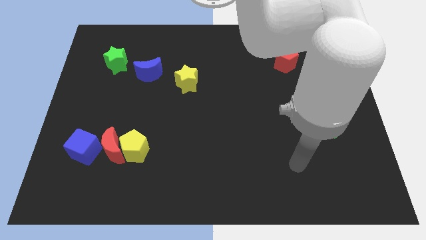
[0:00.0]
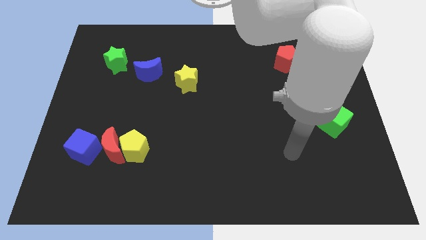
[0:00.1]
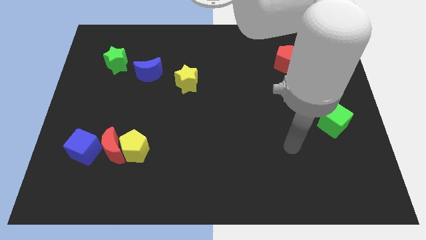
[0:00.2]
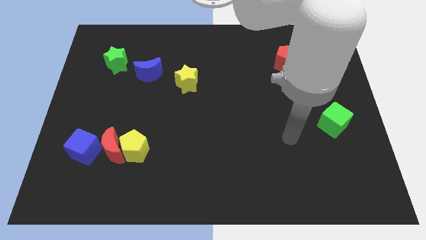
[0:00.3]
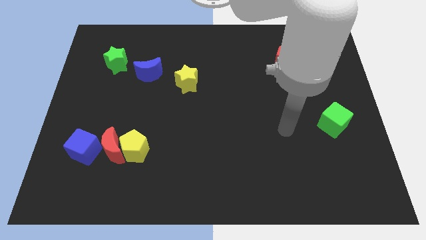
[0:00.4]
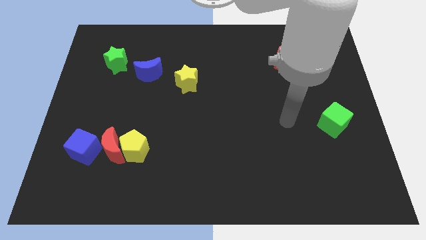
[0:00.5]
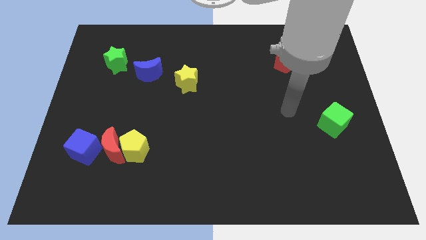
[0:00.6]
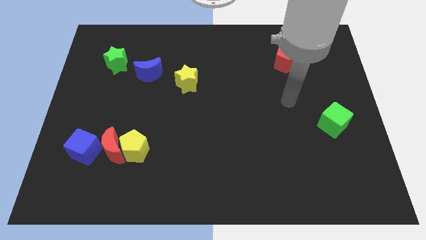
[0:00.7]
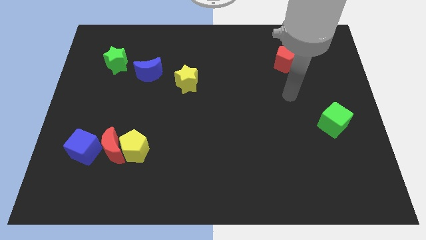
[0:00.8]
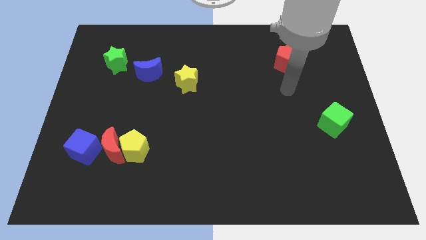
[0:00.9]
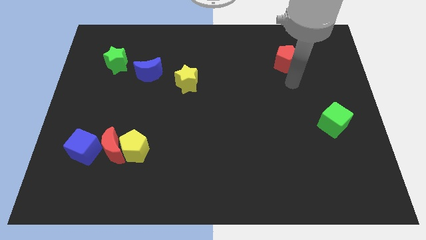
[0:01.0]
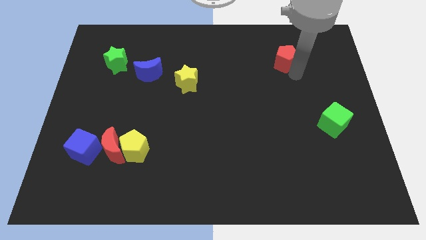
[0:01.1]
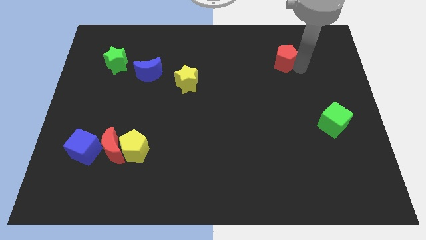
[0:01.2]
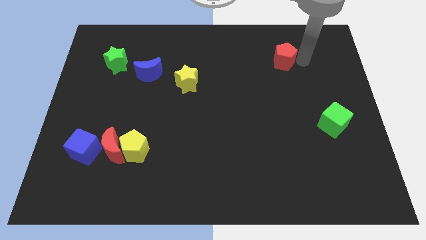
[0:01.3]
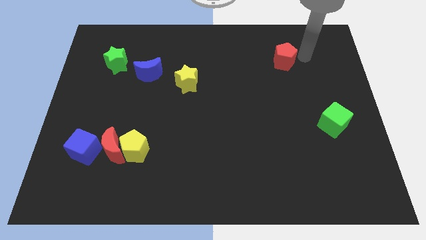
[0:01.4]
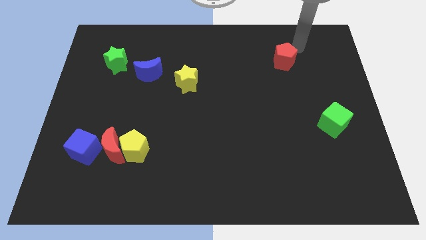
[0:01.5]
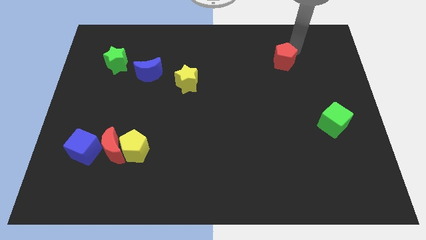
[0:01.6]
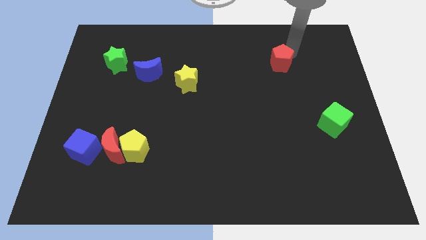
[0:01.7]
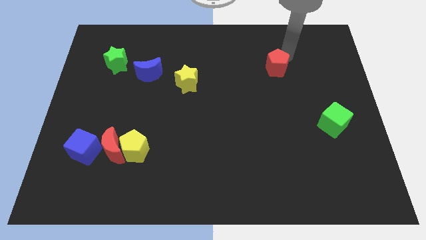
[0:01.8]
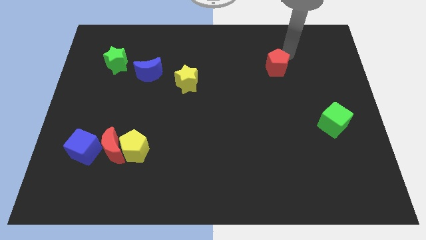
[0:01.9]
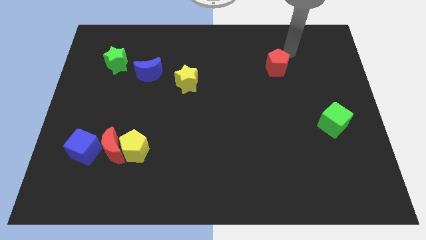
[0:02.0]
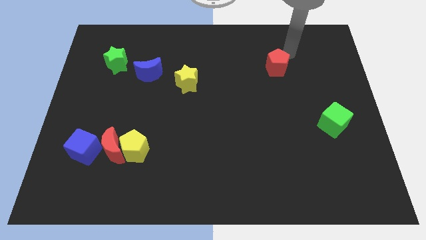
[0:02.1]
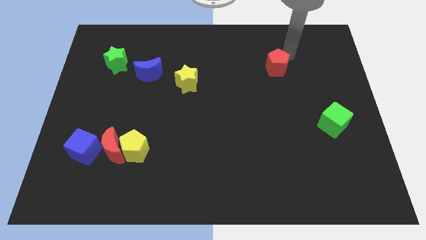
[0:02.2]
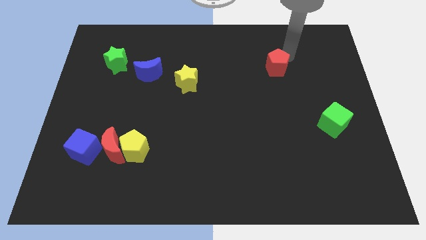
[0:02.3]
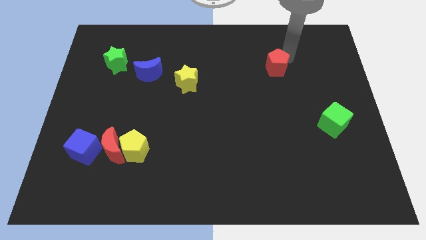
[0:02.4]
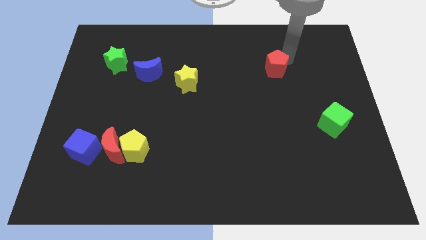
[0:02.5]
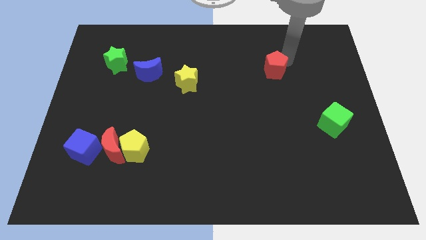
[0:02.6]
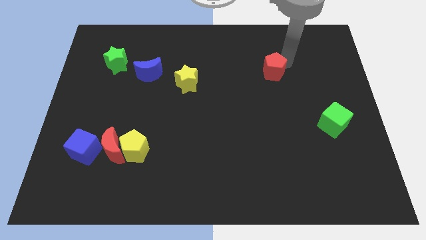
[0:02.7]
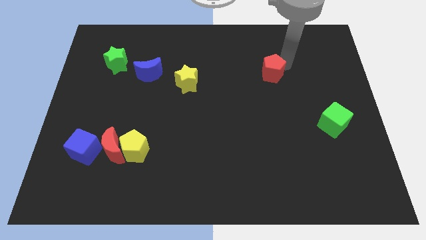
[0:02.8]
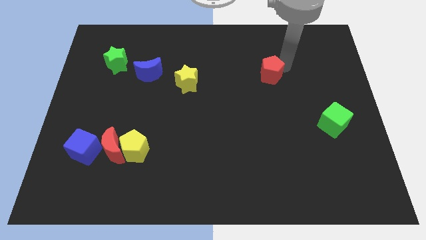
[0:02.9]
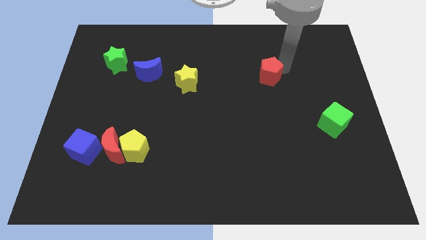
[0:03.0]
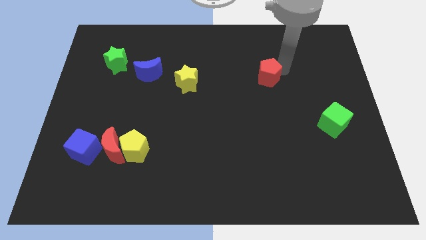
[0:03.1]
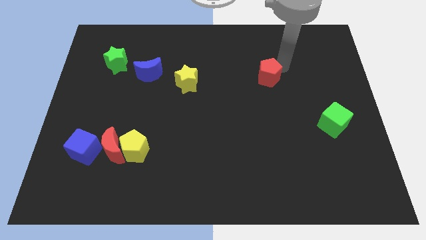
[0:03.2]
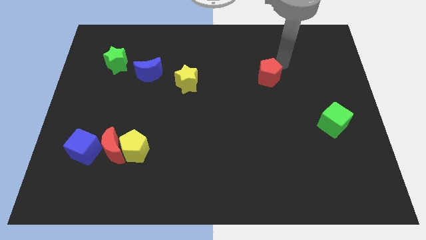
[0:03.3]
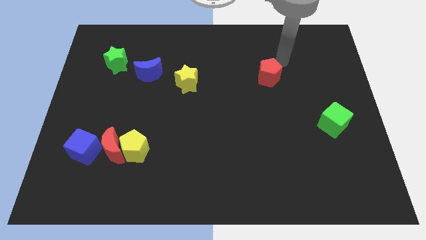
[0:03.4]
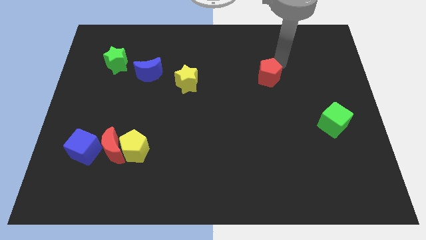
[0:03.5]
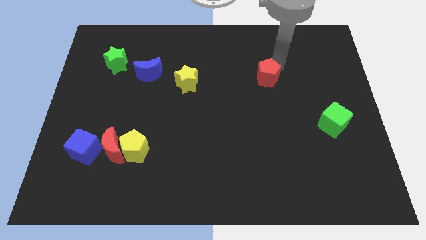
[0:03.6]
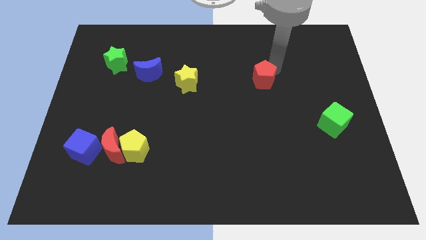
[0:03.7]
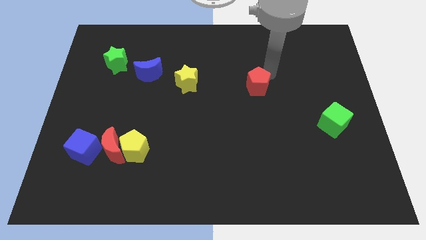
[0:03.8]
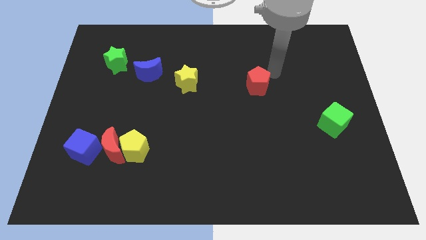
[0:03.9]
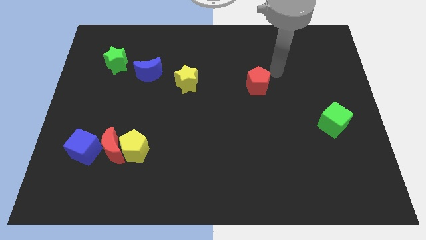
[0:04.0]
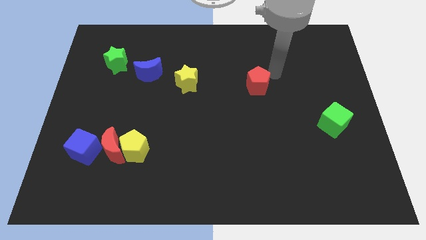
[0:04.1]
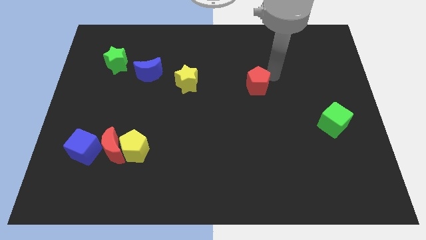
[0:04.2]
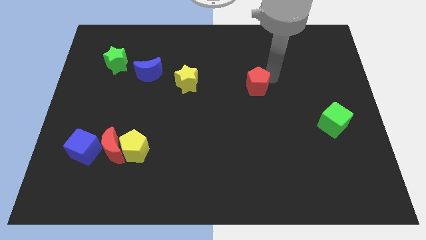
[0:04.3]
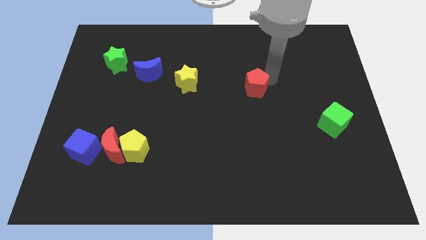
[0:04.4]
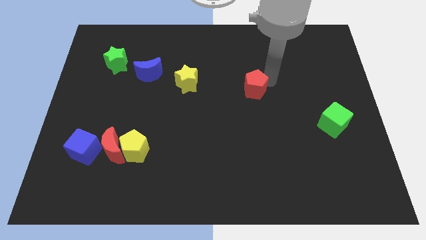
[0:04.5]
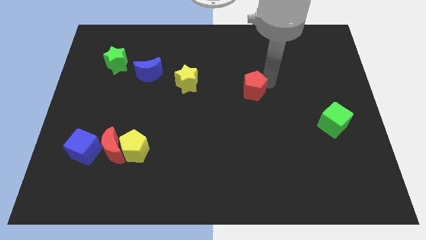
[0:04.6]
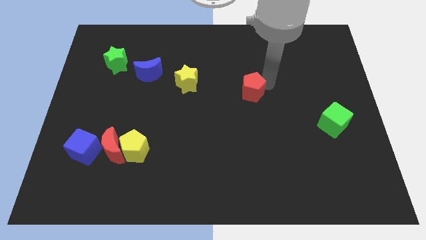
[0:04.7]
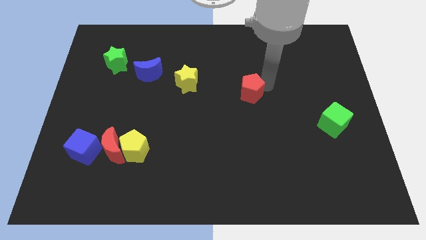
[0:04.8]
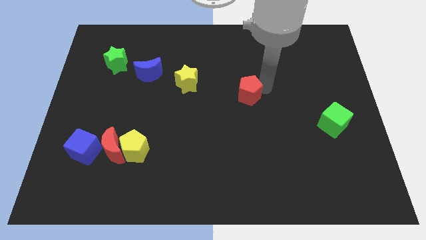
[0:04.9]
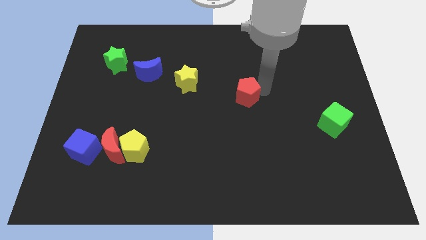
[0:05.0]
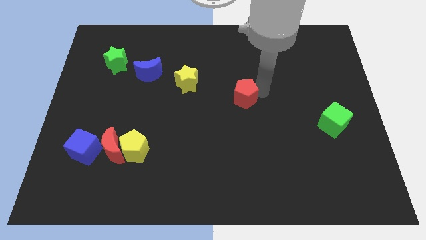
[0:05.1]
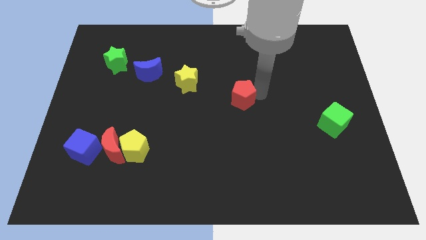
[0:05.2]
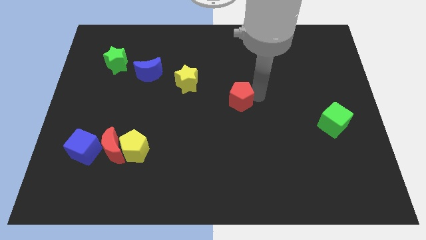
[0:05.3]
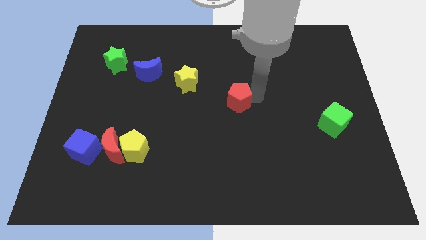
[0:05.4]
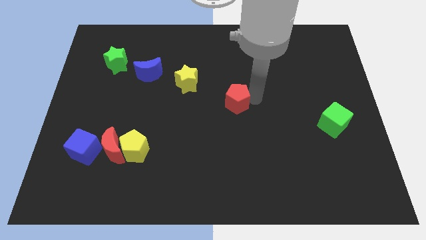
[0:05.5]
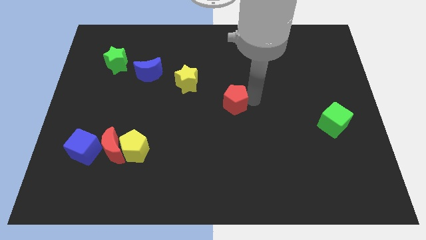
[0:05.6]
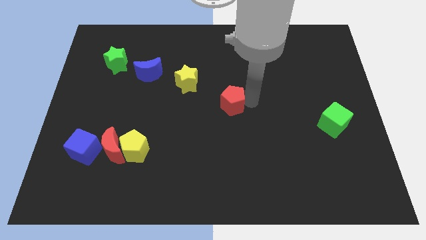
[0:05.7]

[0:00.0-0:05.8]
move the red pentagon diagonally down and left

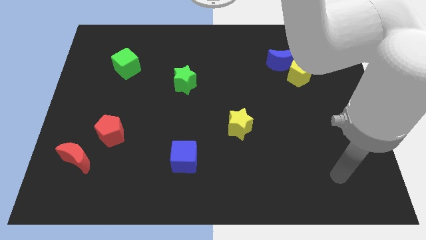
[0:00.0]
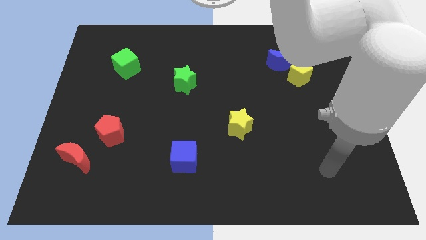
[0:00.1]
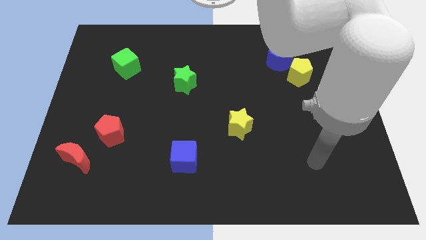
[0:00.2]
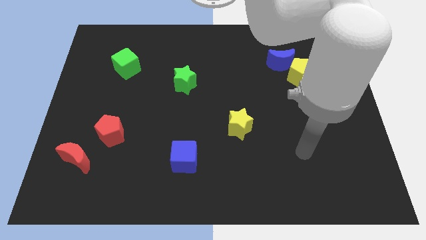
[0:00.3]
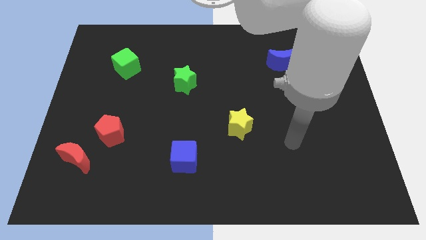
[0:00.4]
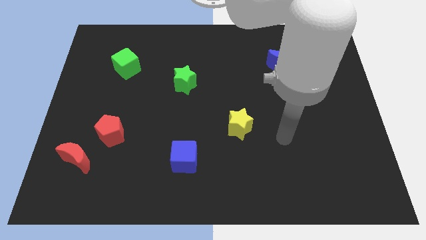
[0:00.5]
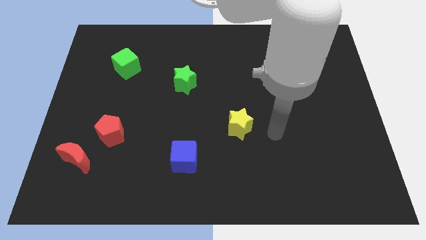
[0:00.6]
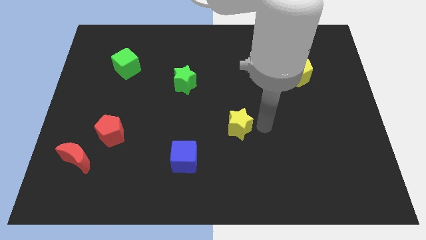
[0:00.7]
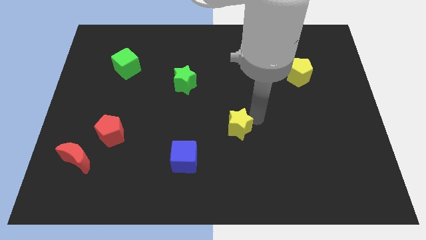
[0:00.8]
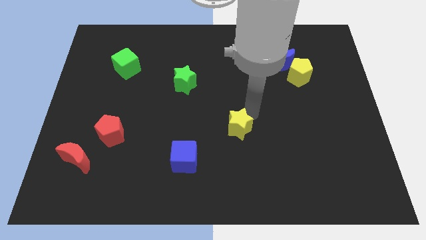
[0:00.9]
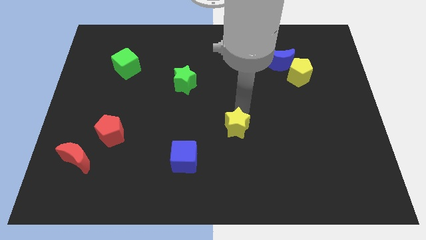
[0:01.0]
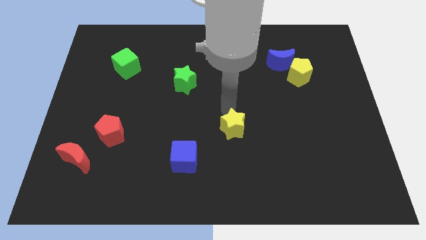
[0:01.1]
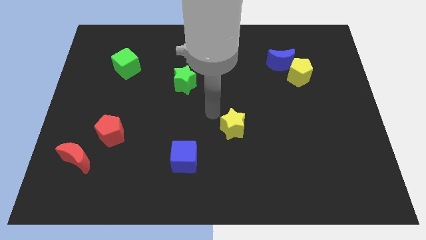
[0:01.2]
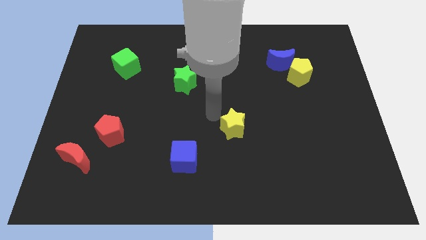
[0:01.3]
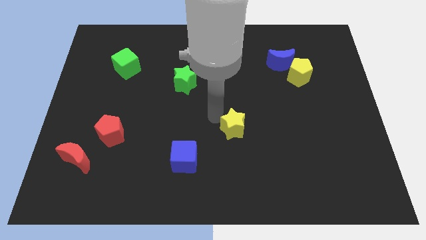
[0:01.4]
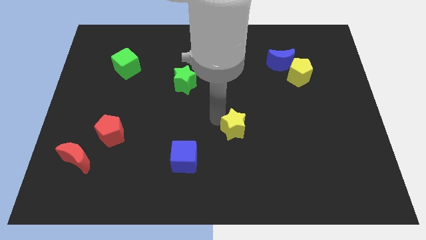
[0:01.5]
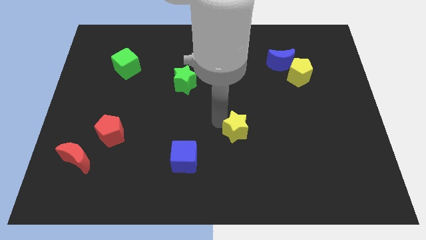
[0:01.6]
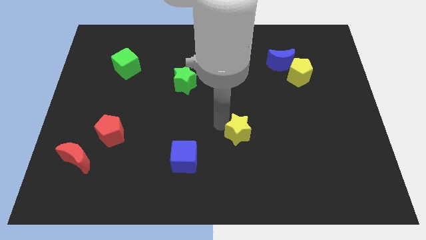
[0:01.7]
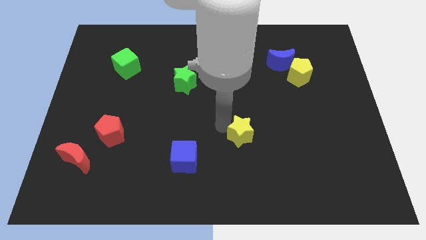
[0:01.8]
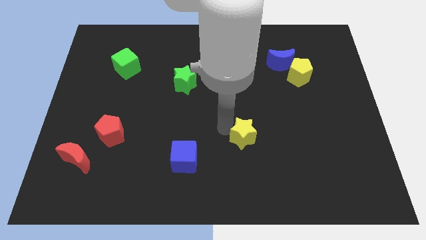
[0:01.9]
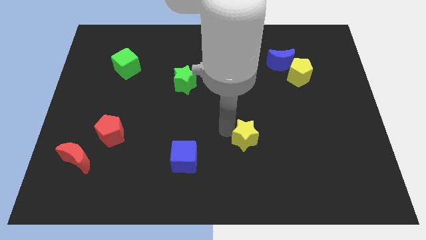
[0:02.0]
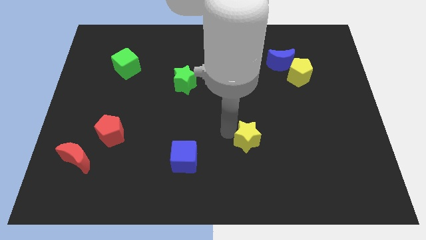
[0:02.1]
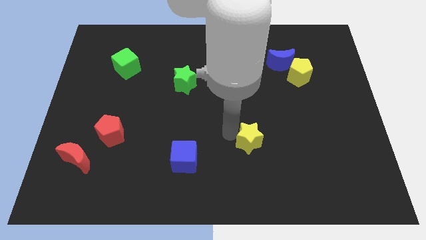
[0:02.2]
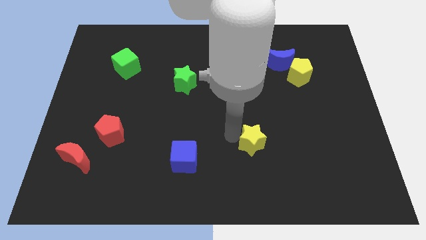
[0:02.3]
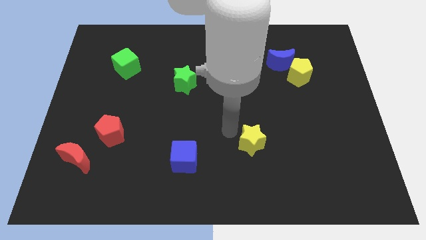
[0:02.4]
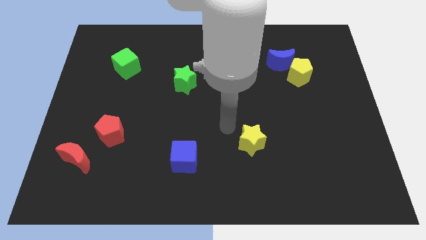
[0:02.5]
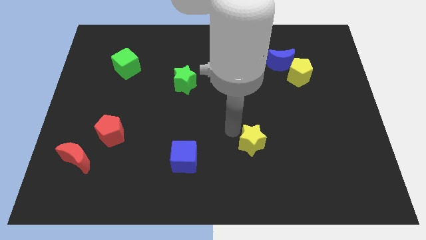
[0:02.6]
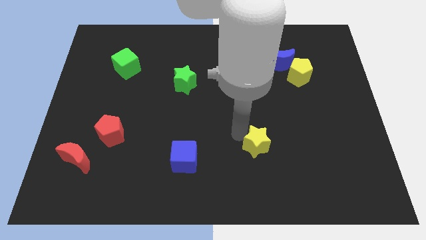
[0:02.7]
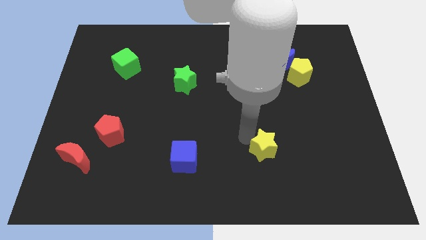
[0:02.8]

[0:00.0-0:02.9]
push the yellow star a bit downwards and to the right
